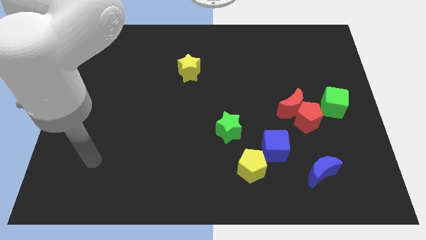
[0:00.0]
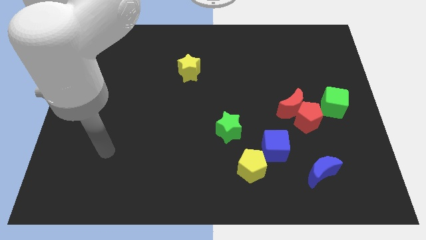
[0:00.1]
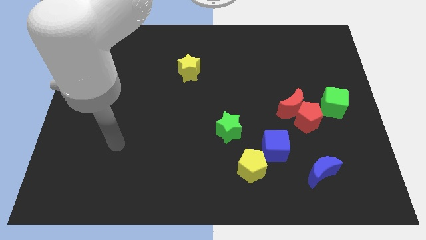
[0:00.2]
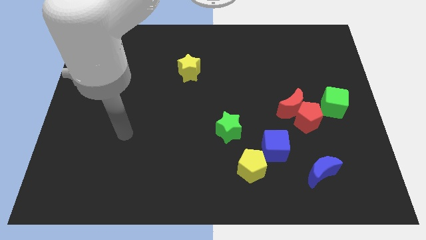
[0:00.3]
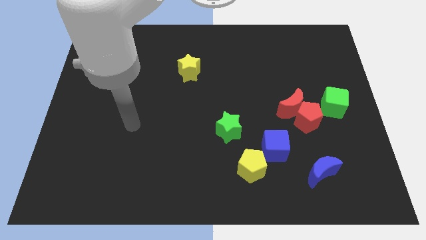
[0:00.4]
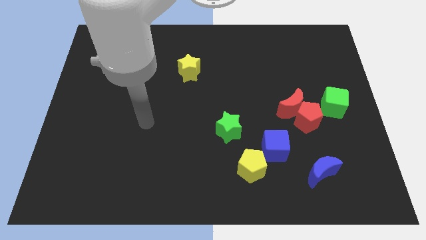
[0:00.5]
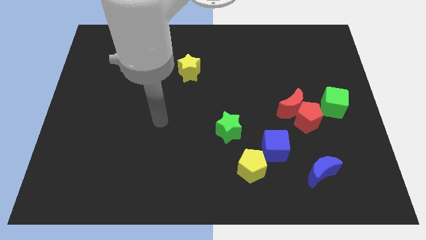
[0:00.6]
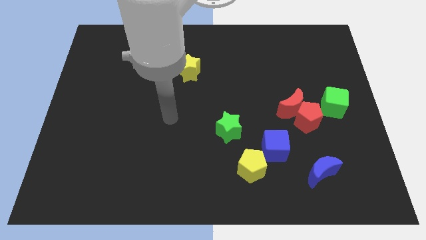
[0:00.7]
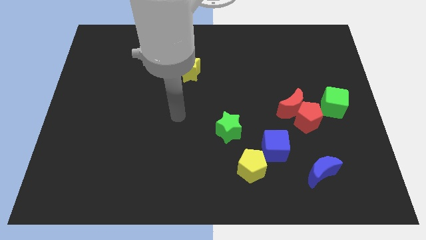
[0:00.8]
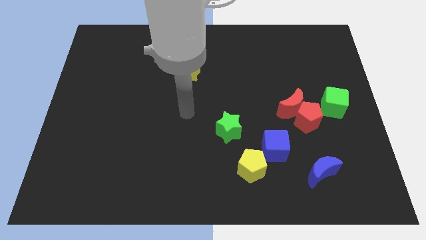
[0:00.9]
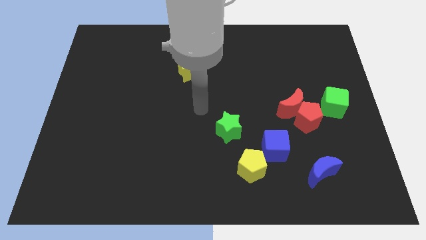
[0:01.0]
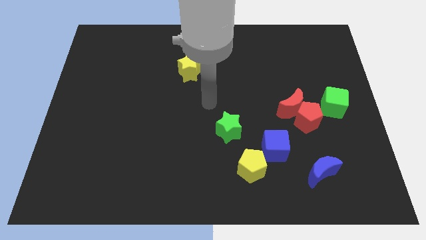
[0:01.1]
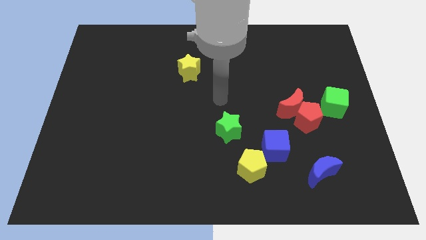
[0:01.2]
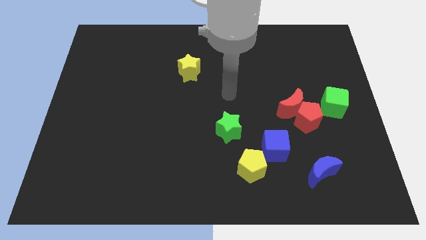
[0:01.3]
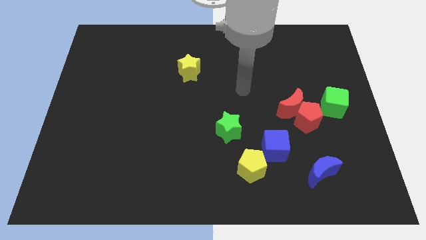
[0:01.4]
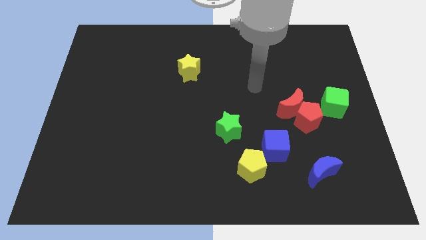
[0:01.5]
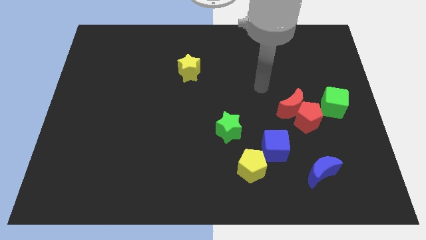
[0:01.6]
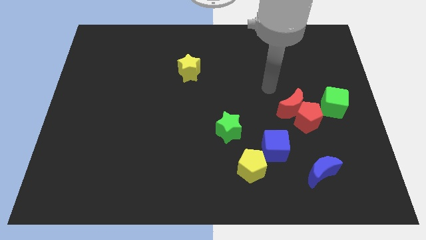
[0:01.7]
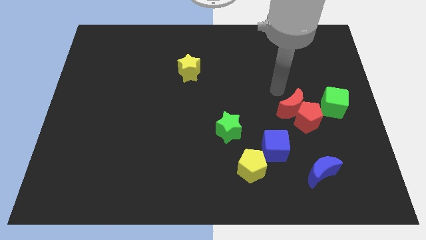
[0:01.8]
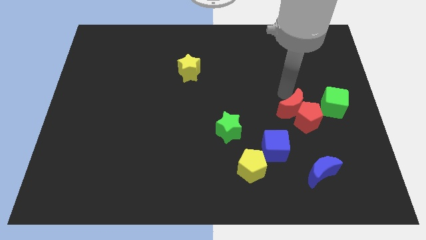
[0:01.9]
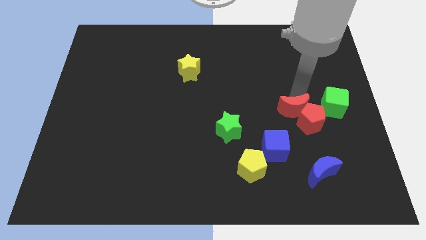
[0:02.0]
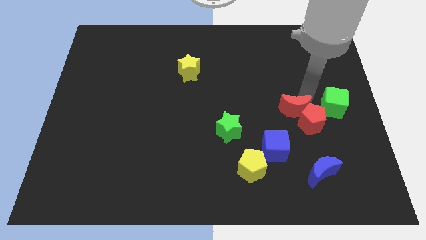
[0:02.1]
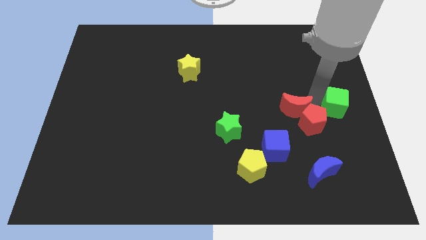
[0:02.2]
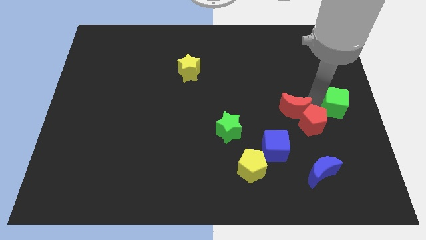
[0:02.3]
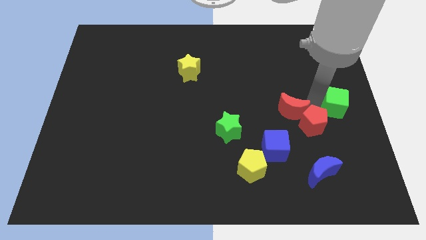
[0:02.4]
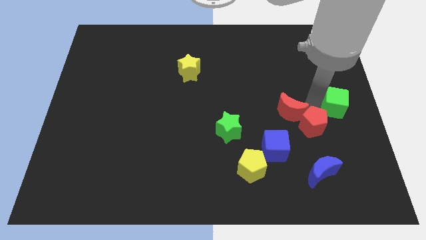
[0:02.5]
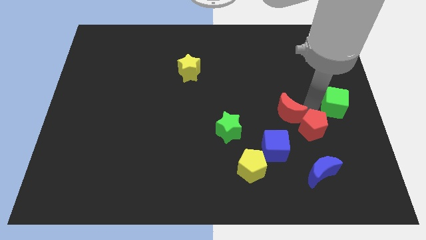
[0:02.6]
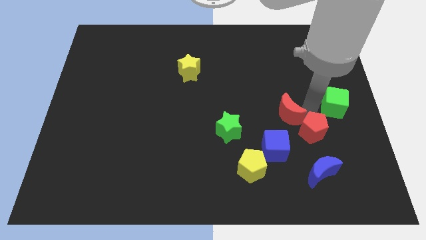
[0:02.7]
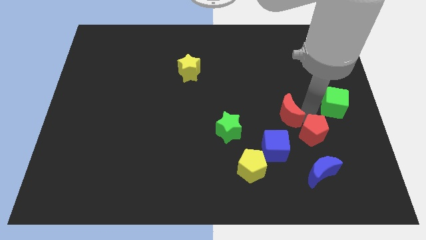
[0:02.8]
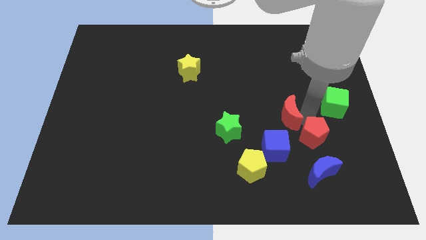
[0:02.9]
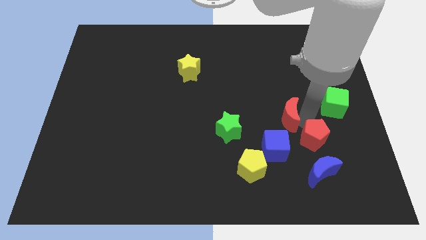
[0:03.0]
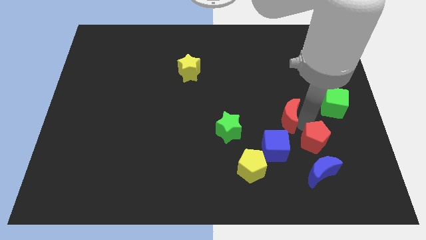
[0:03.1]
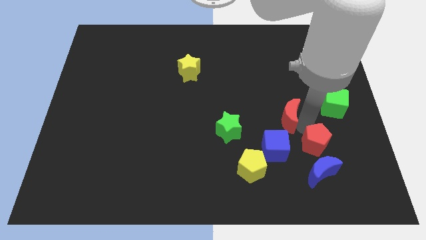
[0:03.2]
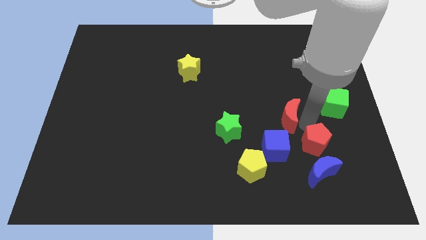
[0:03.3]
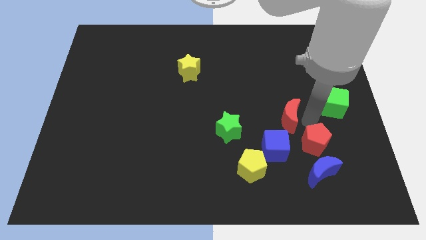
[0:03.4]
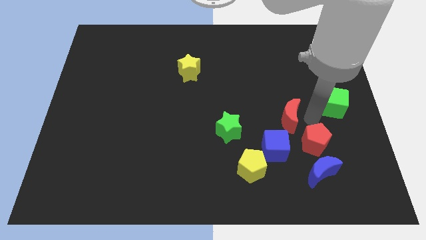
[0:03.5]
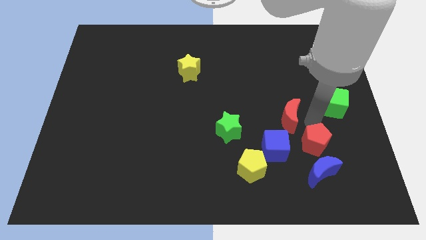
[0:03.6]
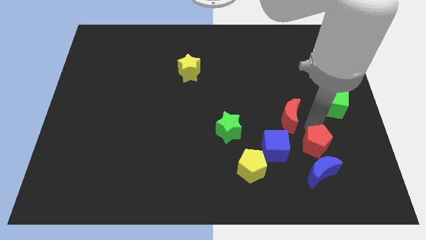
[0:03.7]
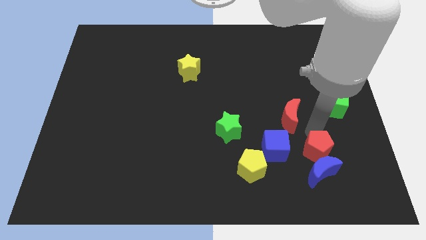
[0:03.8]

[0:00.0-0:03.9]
separate the red pentagon from the red moon and green cube

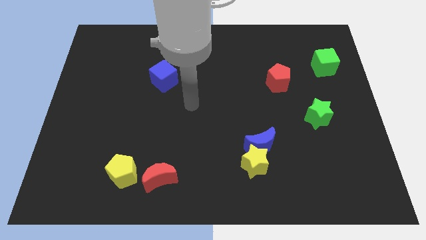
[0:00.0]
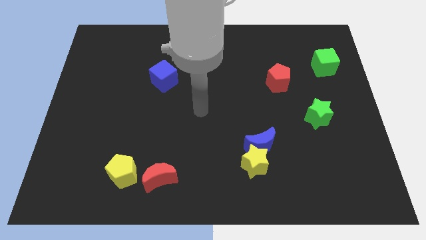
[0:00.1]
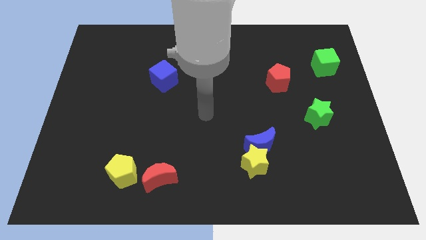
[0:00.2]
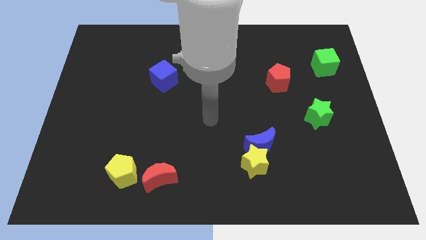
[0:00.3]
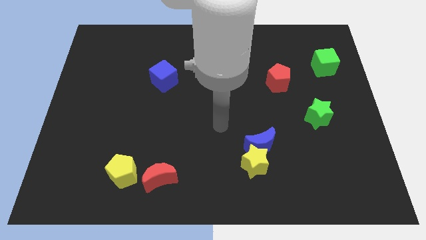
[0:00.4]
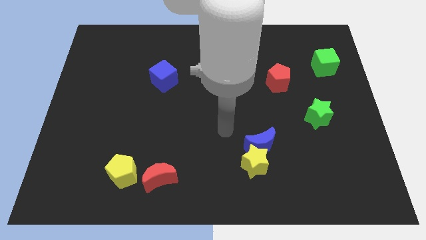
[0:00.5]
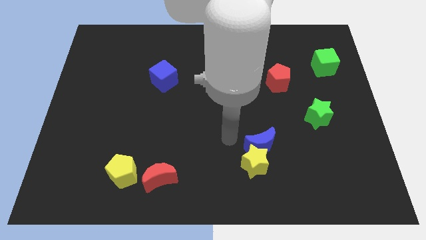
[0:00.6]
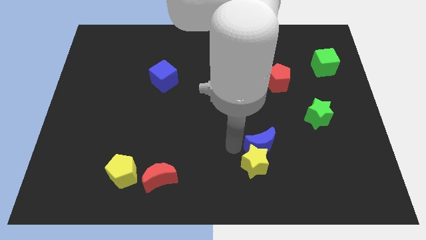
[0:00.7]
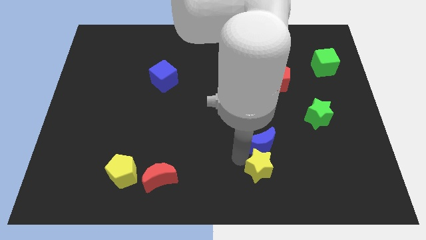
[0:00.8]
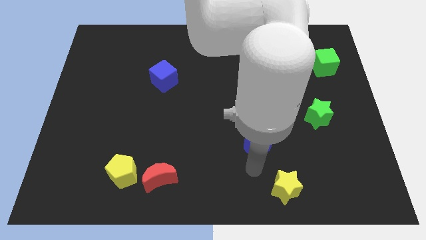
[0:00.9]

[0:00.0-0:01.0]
separate the blue moon from the yellow star

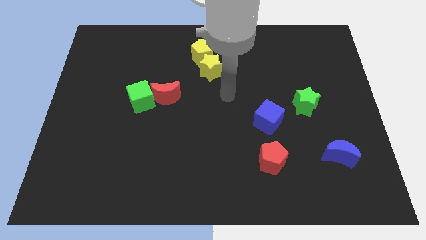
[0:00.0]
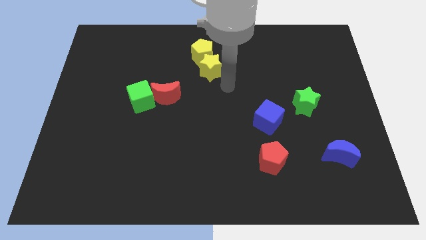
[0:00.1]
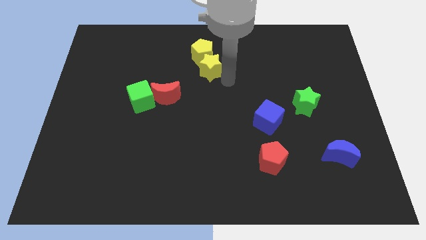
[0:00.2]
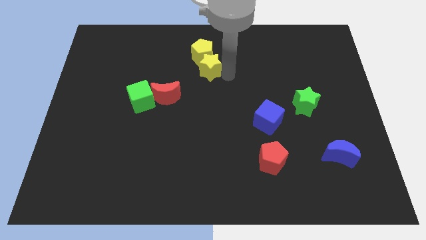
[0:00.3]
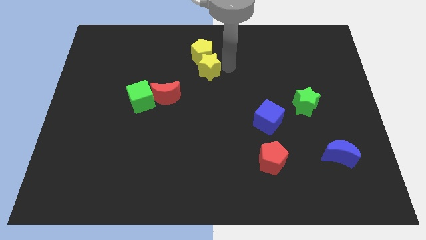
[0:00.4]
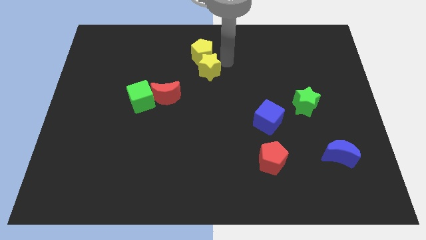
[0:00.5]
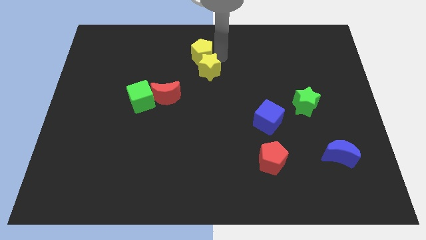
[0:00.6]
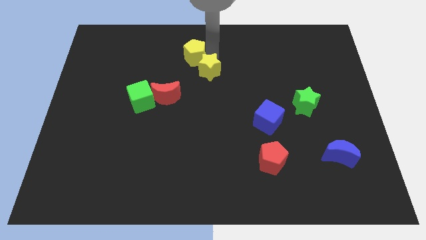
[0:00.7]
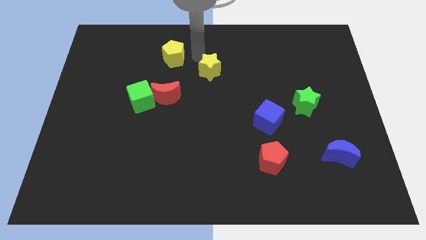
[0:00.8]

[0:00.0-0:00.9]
move the yellow star away from the yellow pentagon

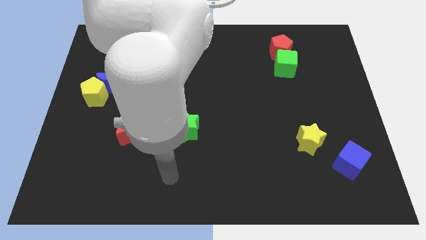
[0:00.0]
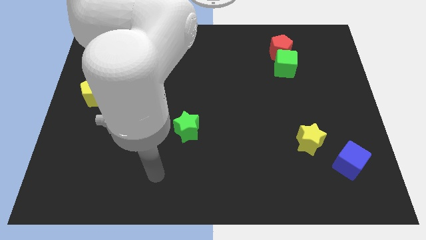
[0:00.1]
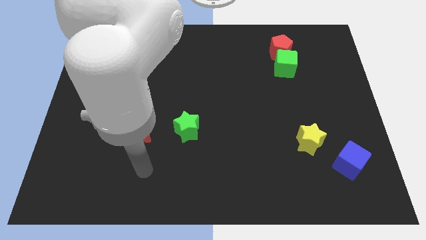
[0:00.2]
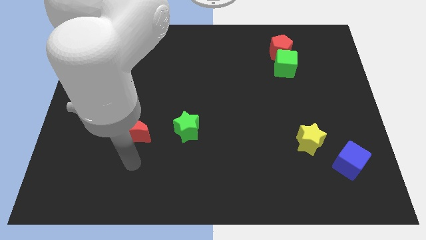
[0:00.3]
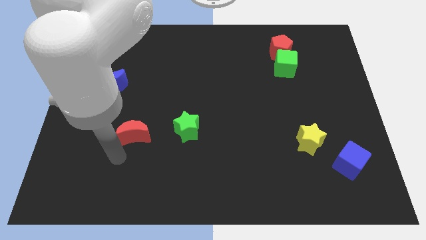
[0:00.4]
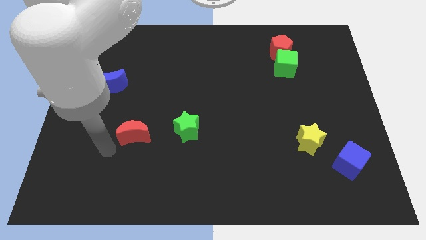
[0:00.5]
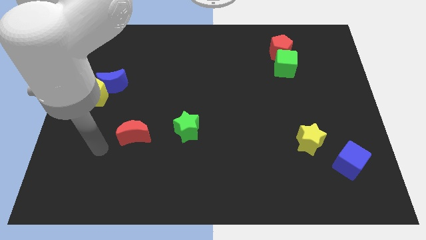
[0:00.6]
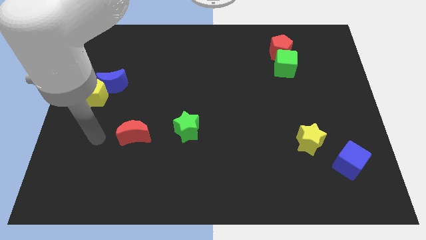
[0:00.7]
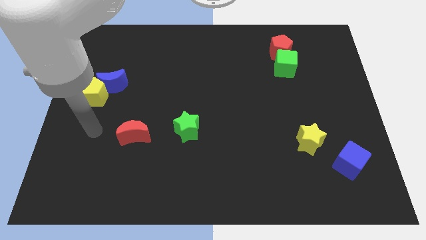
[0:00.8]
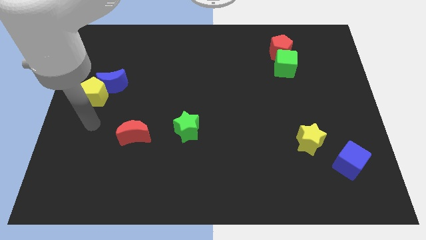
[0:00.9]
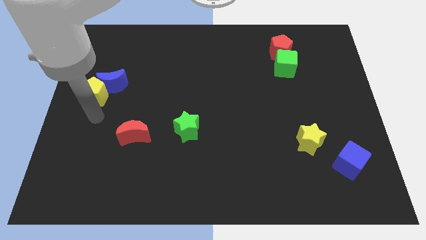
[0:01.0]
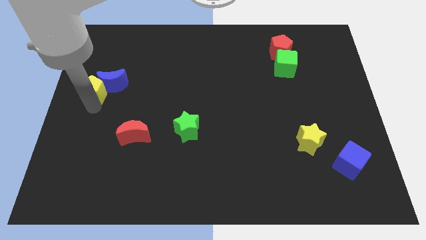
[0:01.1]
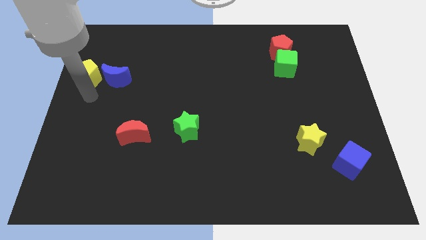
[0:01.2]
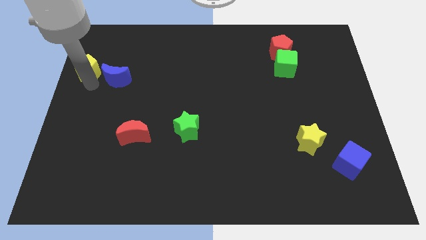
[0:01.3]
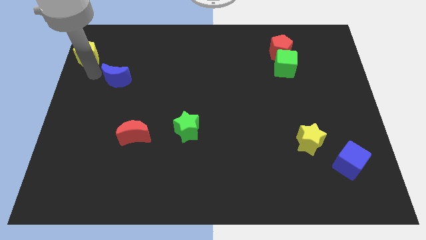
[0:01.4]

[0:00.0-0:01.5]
separate the blue moon from the yellow pentagon

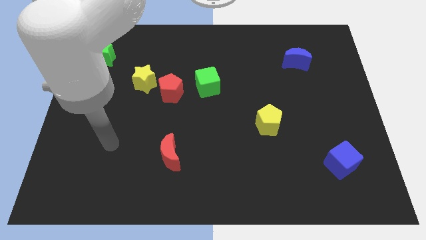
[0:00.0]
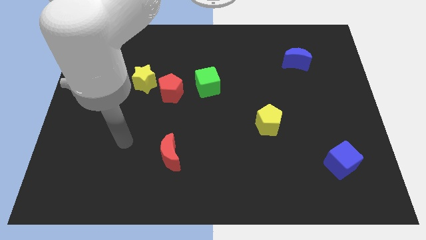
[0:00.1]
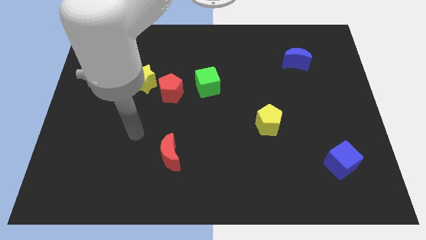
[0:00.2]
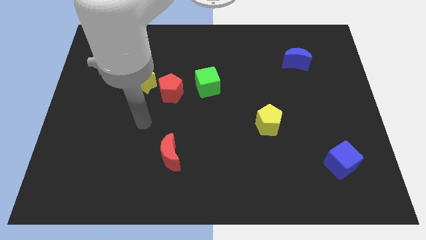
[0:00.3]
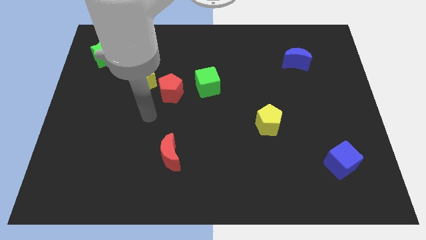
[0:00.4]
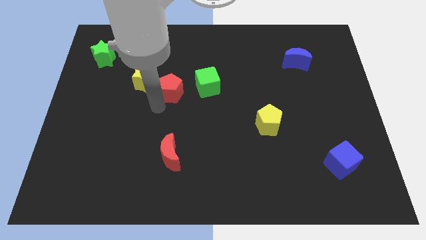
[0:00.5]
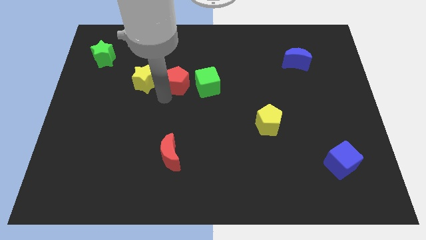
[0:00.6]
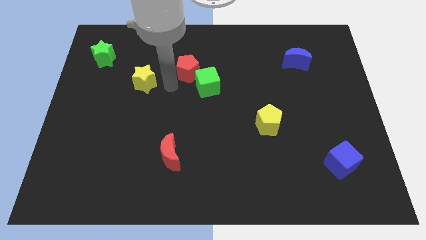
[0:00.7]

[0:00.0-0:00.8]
separate the yellow star from the red pentagon

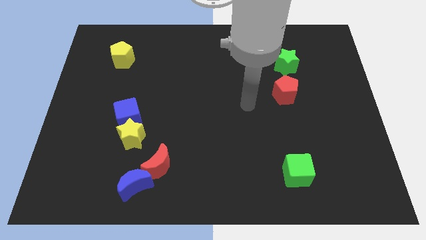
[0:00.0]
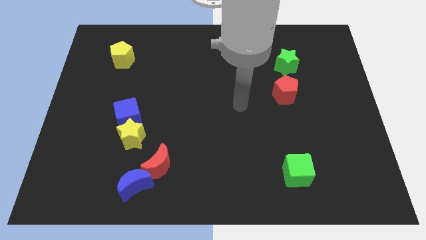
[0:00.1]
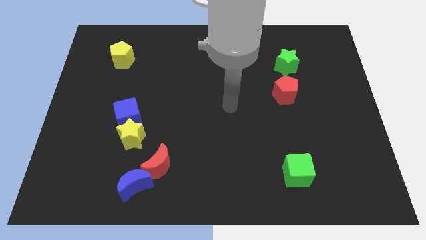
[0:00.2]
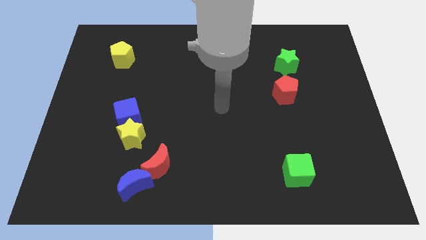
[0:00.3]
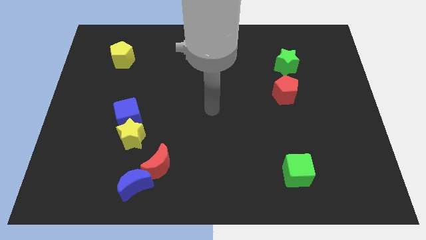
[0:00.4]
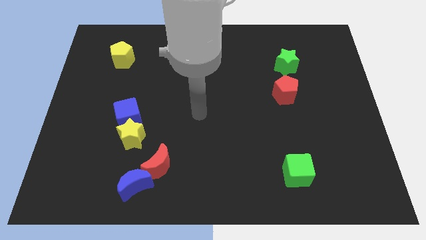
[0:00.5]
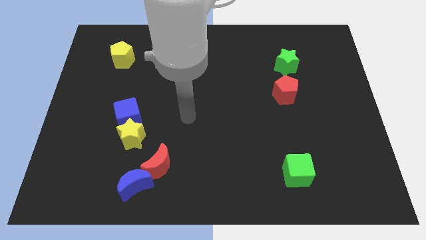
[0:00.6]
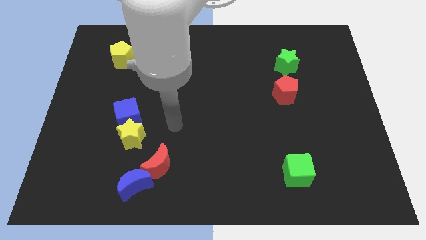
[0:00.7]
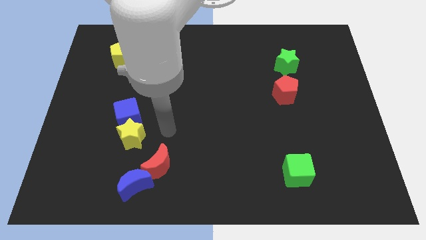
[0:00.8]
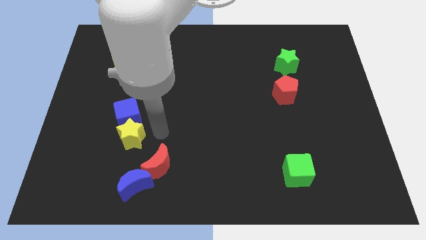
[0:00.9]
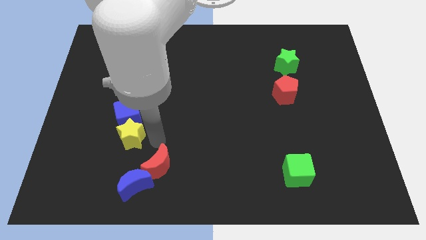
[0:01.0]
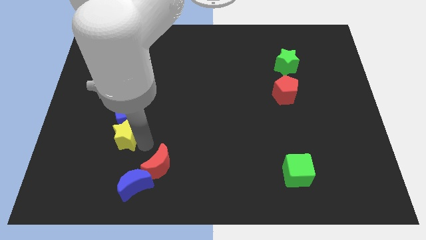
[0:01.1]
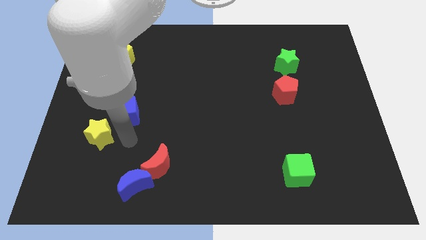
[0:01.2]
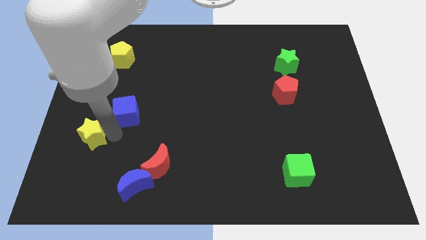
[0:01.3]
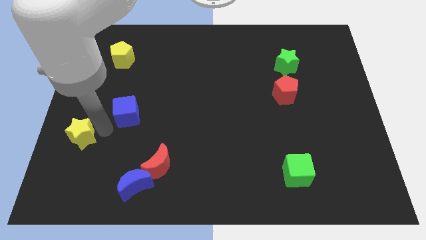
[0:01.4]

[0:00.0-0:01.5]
separate the blue cube from the yellow star
